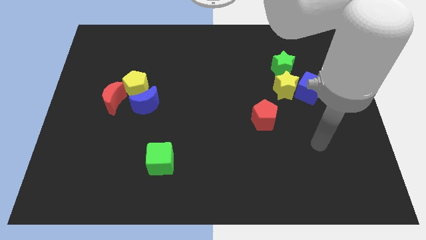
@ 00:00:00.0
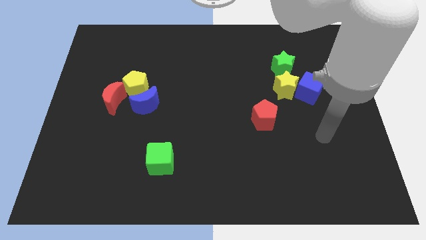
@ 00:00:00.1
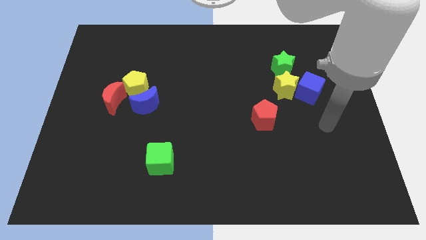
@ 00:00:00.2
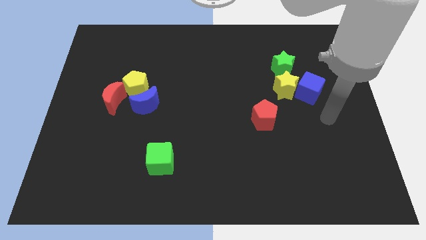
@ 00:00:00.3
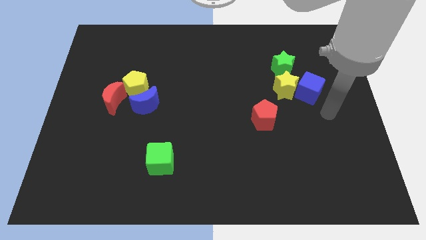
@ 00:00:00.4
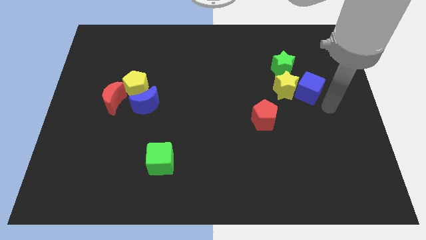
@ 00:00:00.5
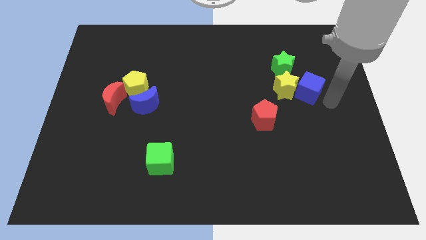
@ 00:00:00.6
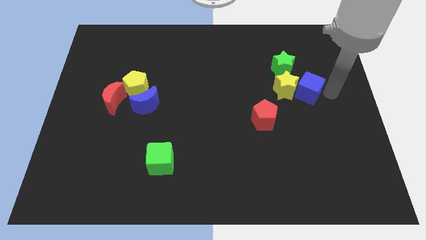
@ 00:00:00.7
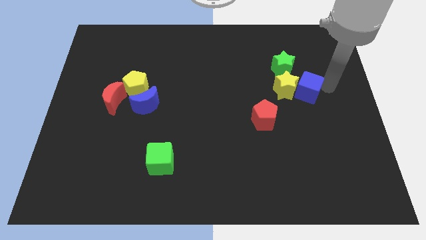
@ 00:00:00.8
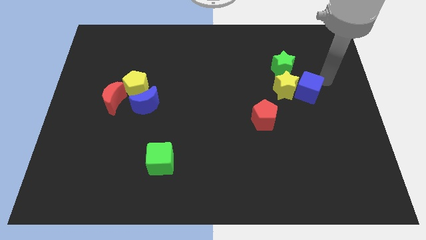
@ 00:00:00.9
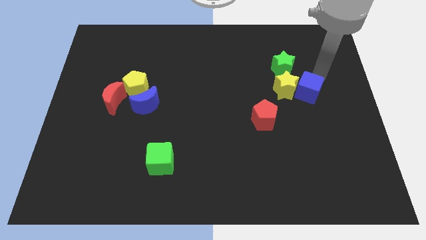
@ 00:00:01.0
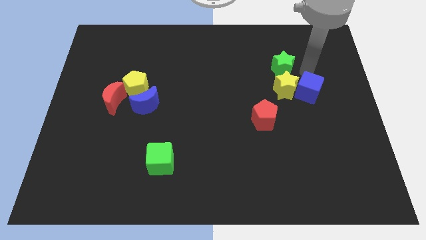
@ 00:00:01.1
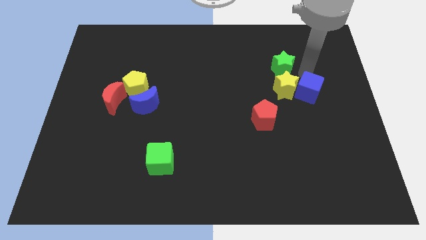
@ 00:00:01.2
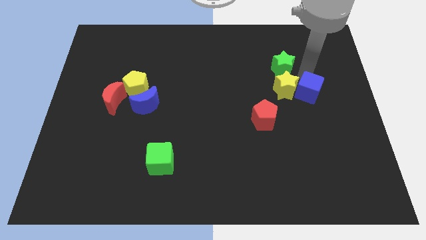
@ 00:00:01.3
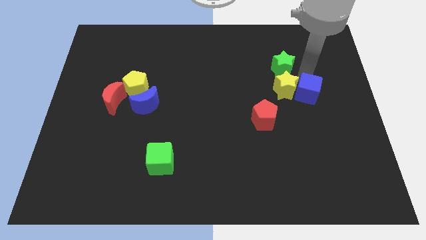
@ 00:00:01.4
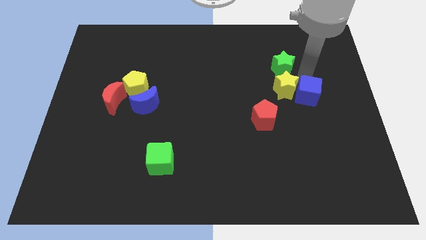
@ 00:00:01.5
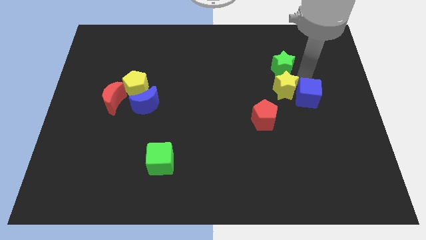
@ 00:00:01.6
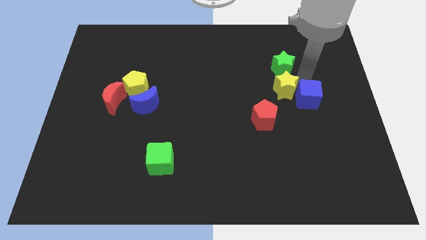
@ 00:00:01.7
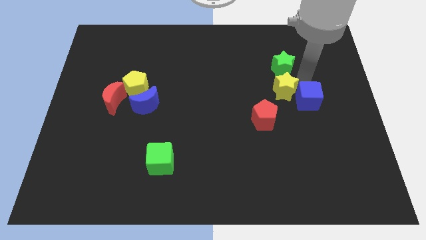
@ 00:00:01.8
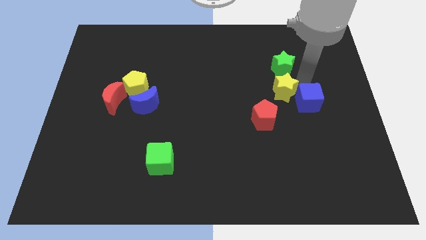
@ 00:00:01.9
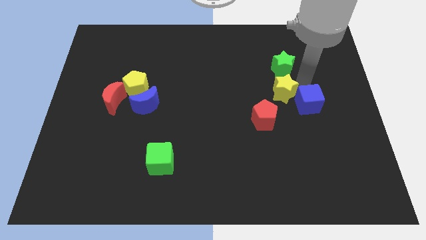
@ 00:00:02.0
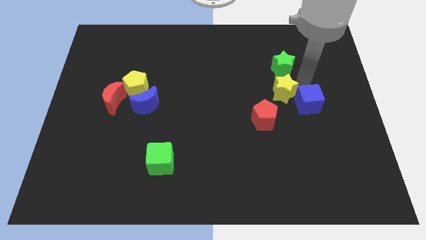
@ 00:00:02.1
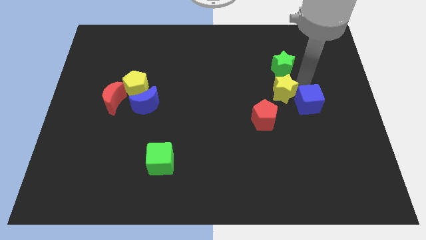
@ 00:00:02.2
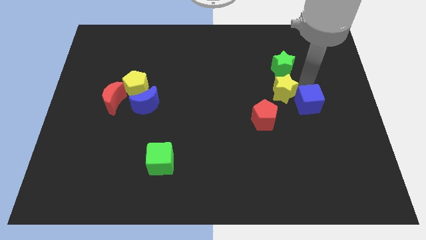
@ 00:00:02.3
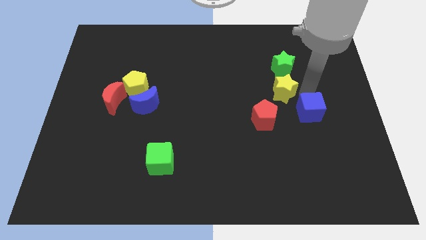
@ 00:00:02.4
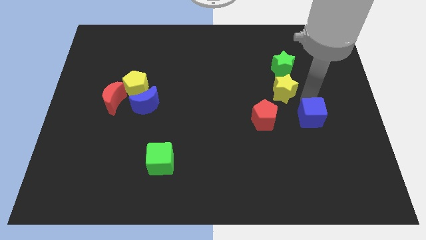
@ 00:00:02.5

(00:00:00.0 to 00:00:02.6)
push the blue cube a bit downwards

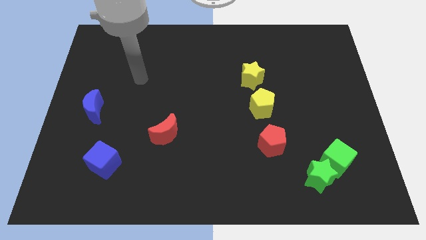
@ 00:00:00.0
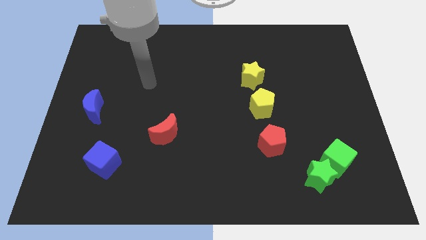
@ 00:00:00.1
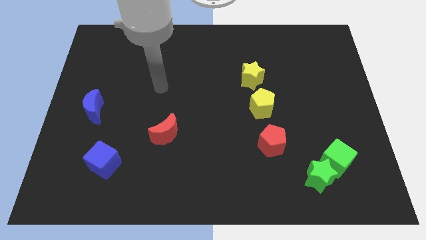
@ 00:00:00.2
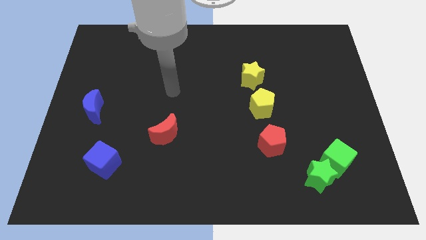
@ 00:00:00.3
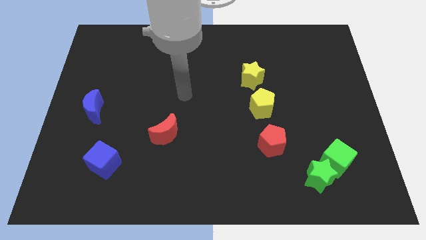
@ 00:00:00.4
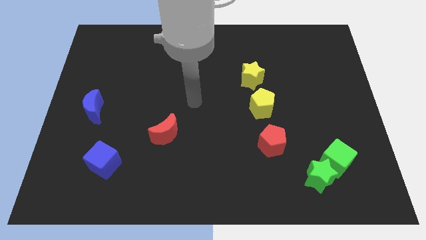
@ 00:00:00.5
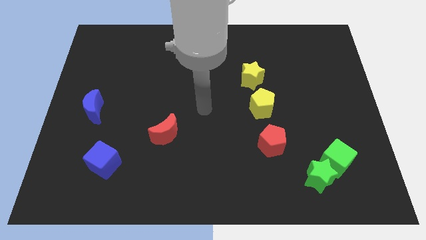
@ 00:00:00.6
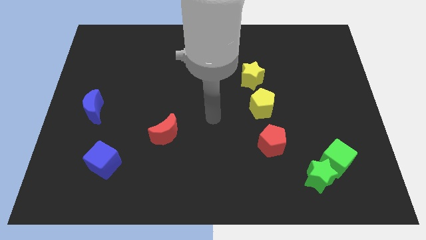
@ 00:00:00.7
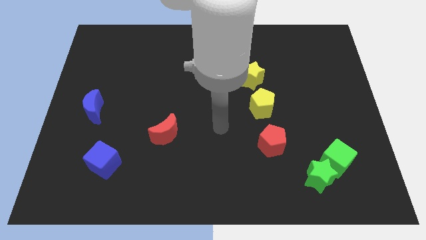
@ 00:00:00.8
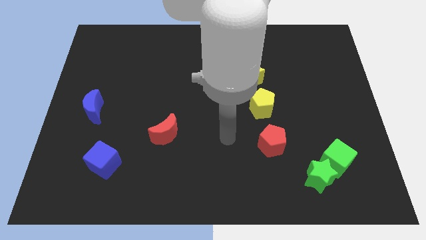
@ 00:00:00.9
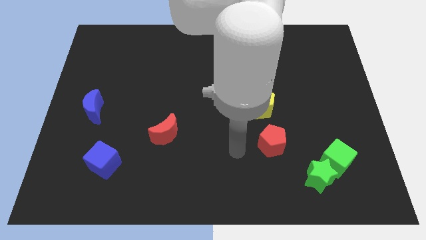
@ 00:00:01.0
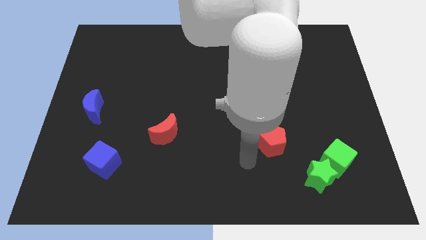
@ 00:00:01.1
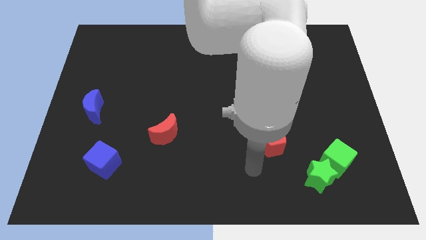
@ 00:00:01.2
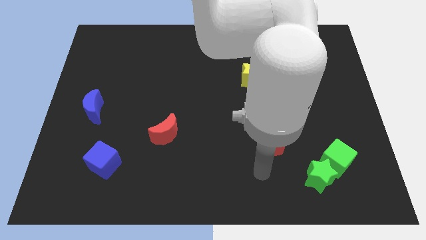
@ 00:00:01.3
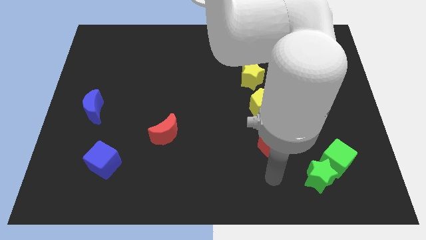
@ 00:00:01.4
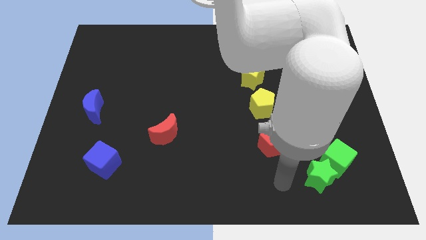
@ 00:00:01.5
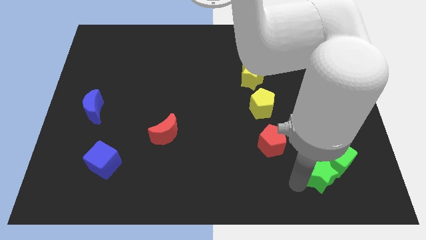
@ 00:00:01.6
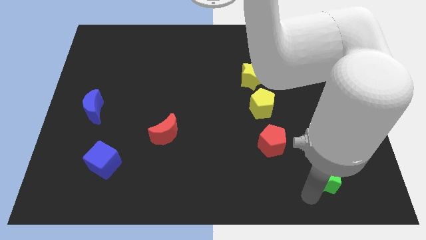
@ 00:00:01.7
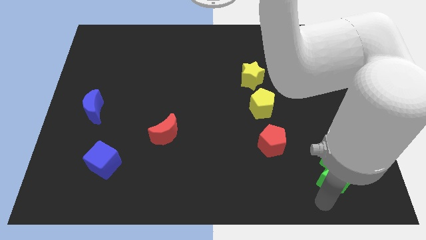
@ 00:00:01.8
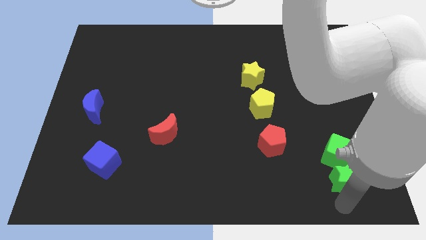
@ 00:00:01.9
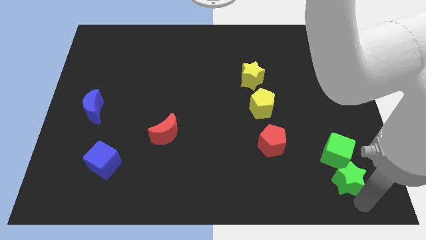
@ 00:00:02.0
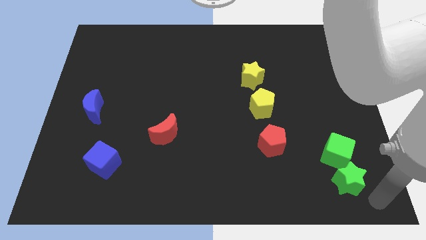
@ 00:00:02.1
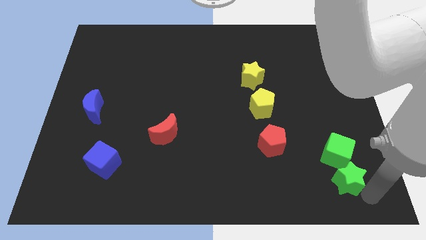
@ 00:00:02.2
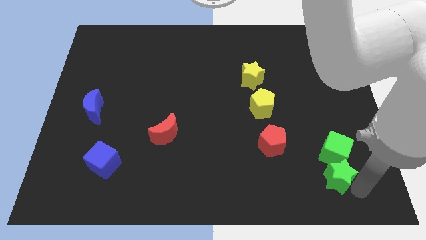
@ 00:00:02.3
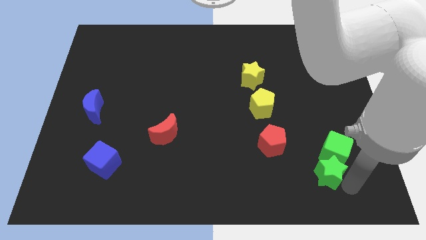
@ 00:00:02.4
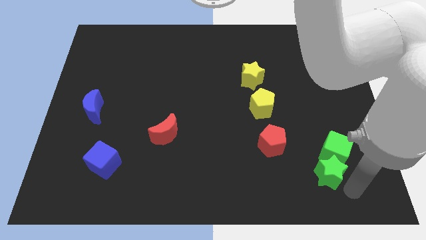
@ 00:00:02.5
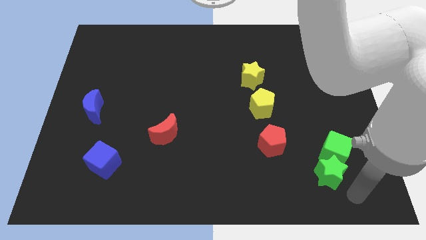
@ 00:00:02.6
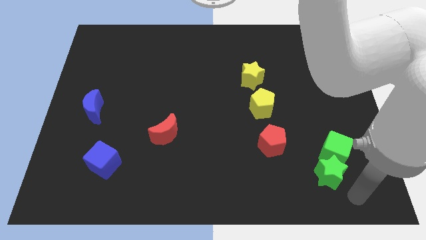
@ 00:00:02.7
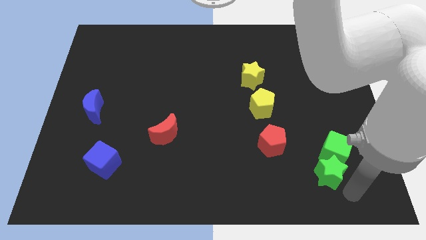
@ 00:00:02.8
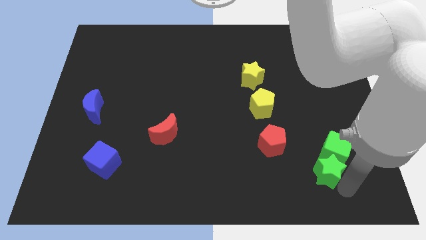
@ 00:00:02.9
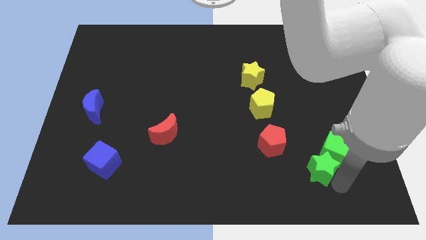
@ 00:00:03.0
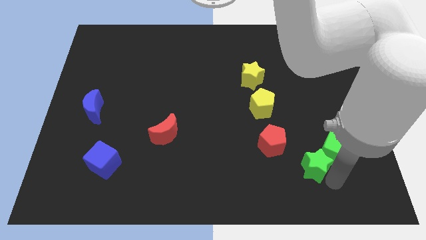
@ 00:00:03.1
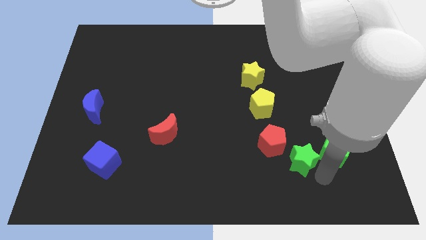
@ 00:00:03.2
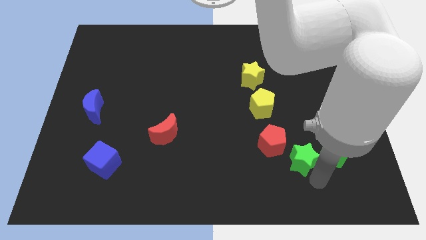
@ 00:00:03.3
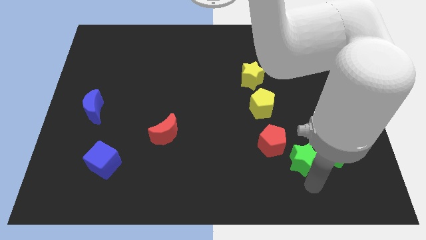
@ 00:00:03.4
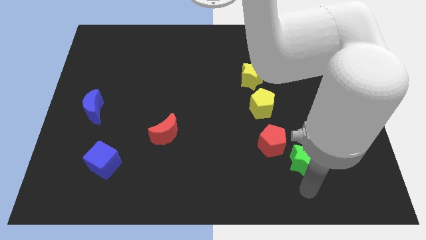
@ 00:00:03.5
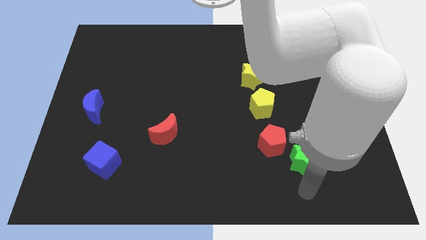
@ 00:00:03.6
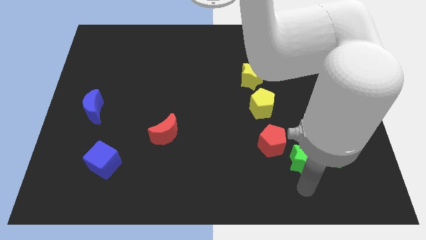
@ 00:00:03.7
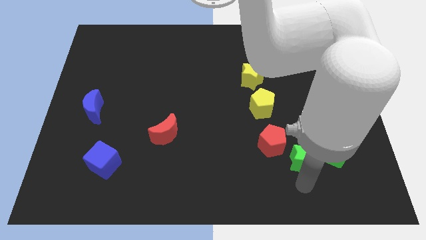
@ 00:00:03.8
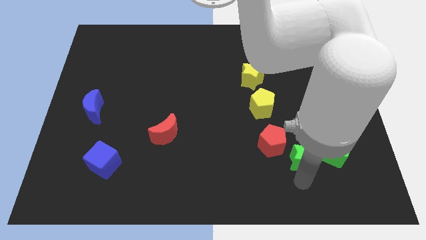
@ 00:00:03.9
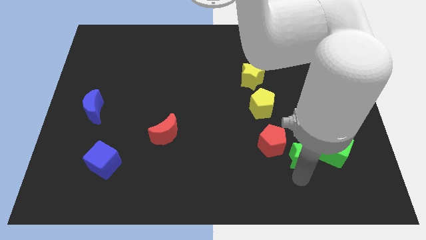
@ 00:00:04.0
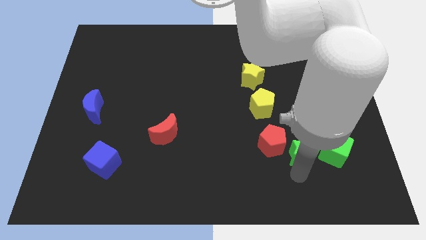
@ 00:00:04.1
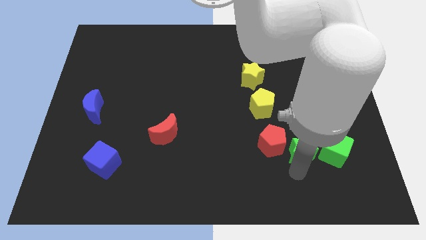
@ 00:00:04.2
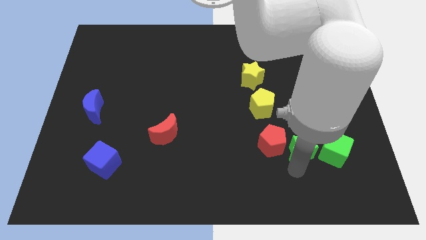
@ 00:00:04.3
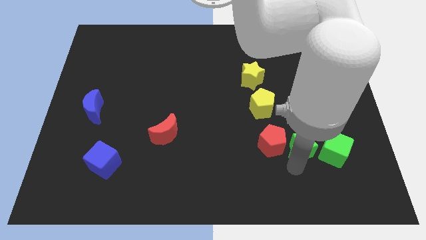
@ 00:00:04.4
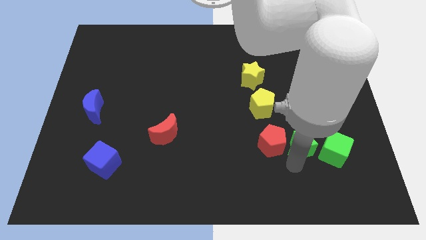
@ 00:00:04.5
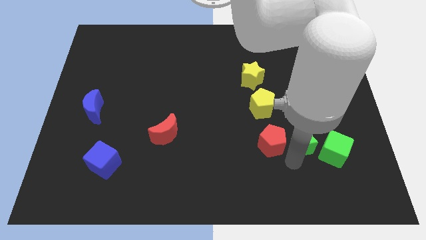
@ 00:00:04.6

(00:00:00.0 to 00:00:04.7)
slightly move the green star upwards

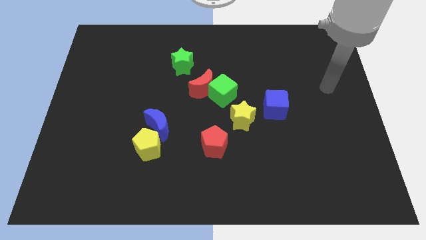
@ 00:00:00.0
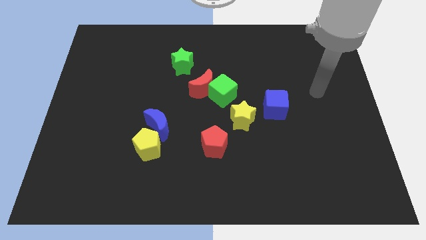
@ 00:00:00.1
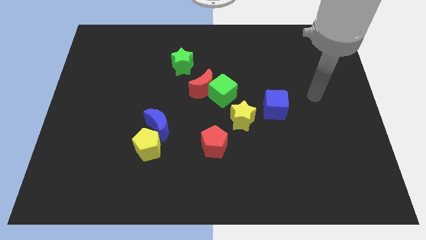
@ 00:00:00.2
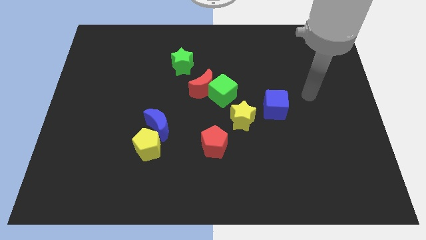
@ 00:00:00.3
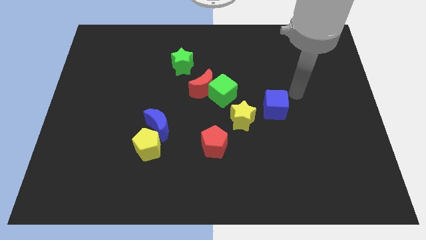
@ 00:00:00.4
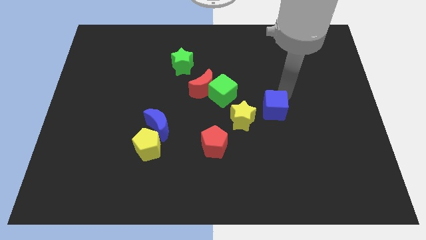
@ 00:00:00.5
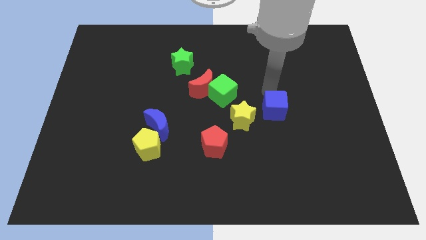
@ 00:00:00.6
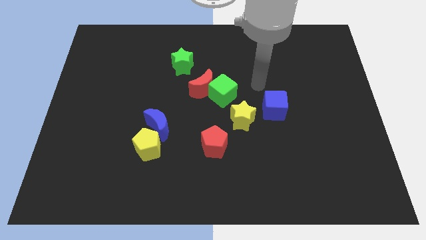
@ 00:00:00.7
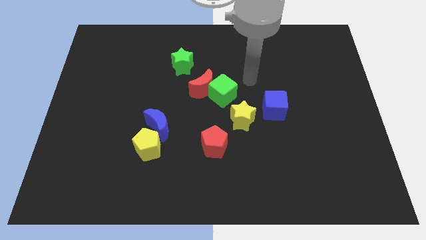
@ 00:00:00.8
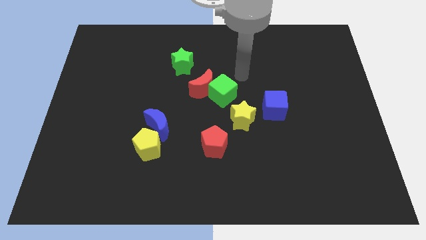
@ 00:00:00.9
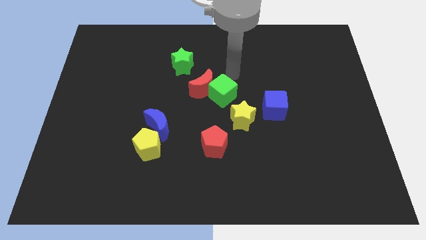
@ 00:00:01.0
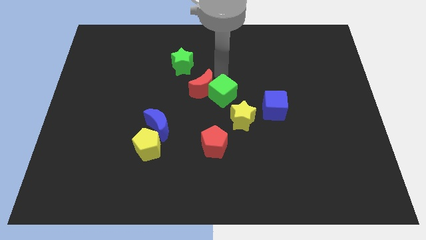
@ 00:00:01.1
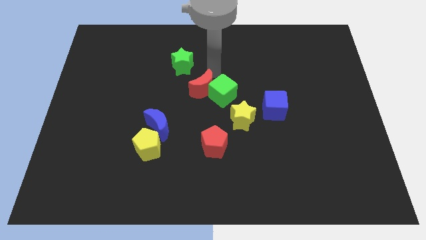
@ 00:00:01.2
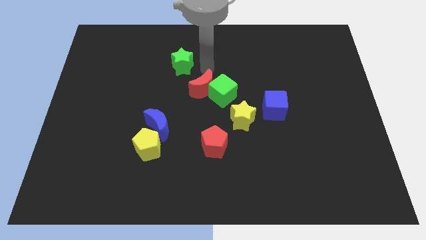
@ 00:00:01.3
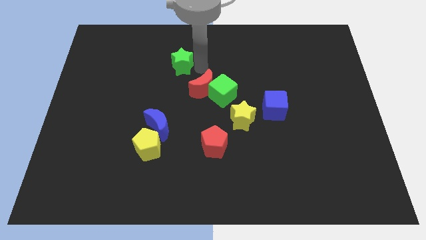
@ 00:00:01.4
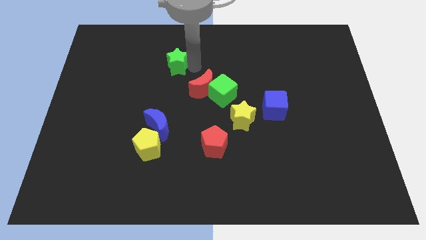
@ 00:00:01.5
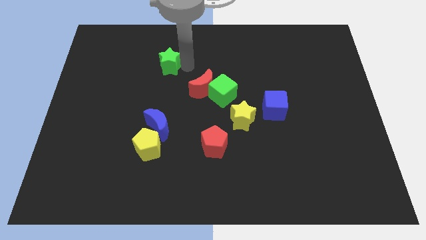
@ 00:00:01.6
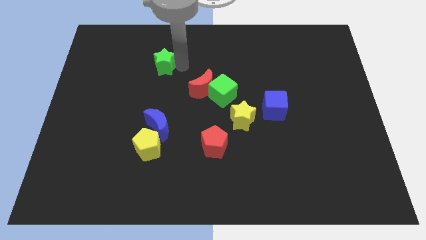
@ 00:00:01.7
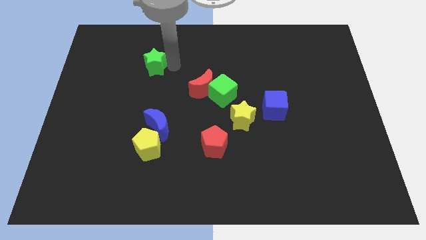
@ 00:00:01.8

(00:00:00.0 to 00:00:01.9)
slide the green star slightly left
